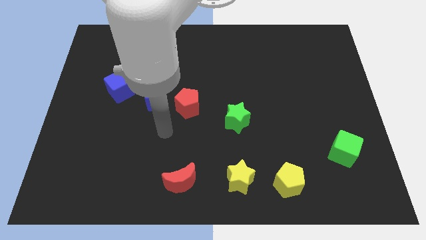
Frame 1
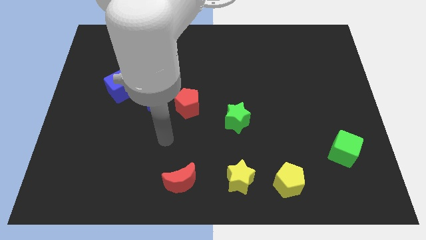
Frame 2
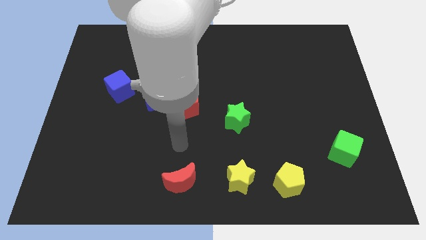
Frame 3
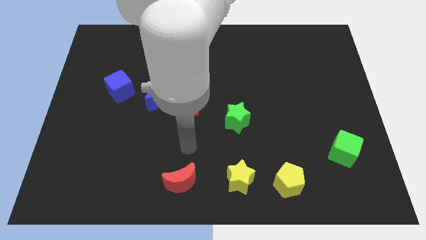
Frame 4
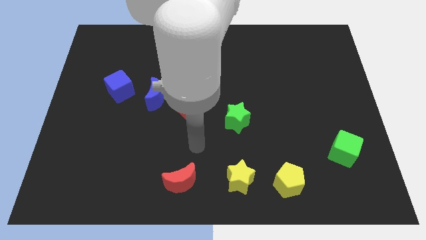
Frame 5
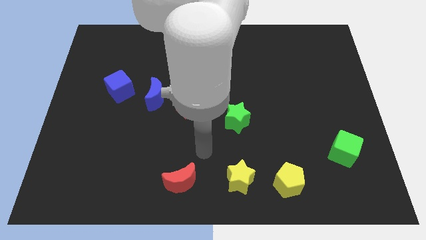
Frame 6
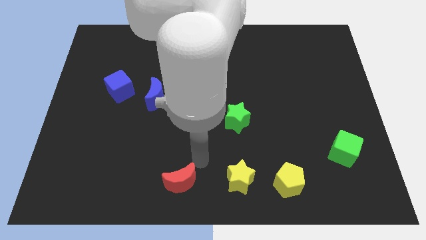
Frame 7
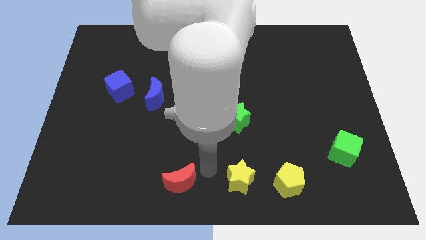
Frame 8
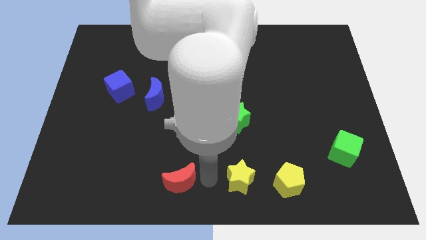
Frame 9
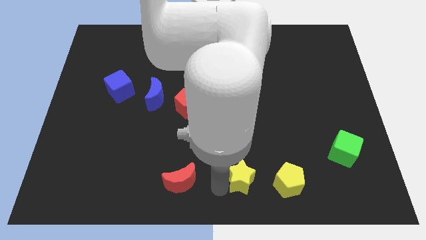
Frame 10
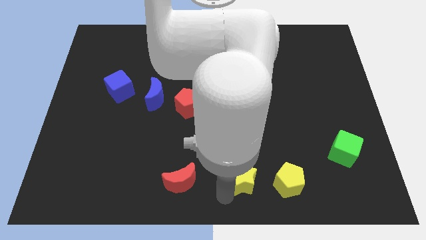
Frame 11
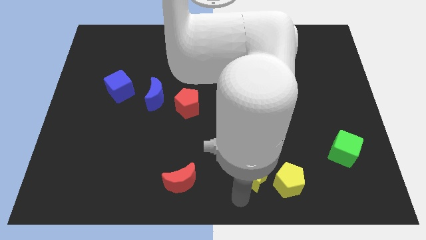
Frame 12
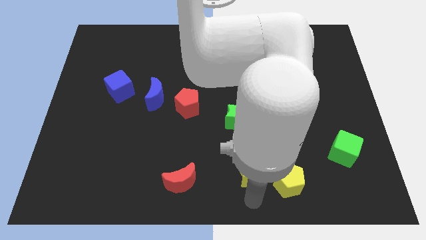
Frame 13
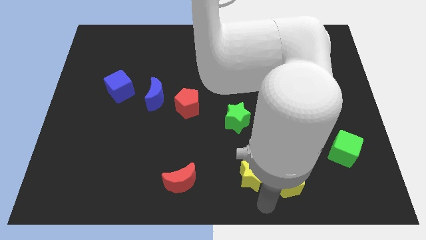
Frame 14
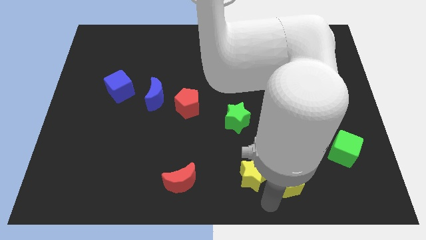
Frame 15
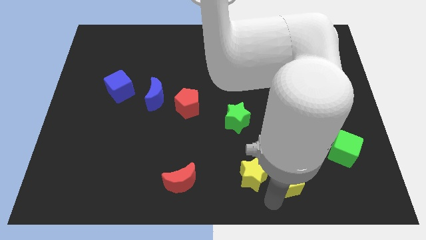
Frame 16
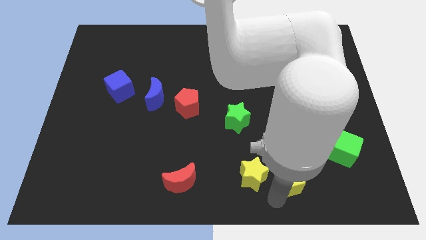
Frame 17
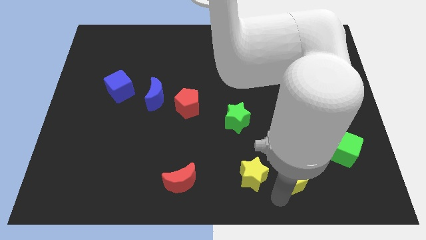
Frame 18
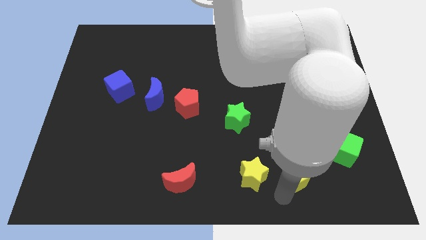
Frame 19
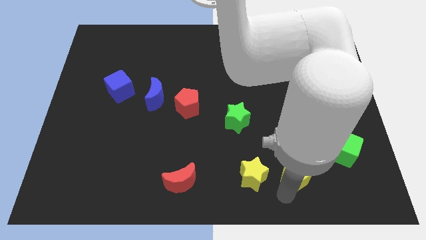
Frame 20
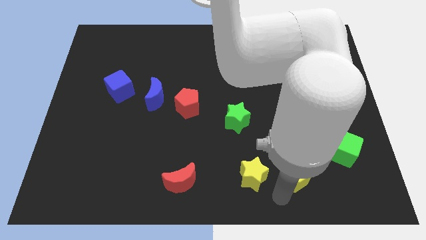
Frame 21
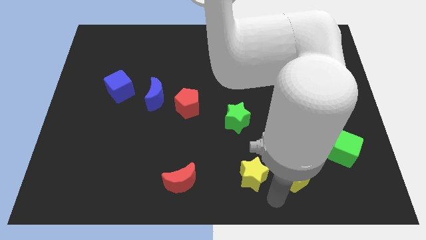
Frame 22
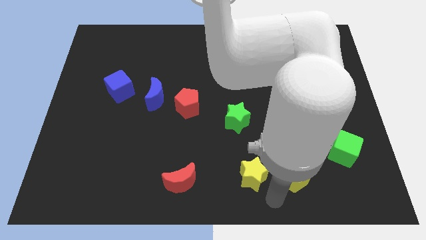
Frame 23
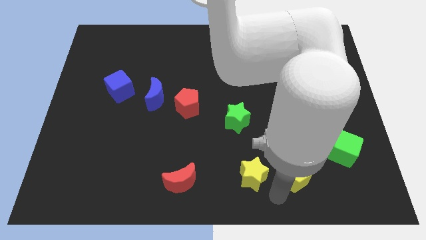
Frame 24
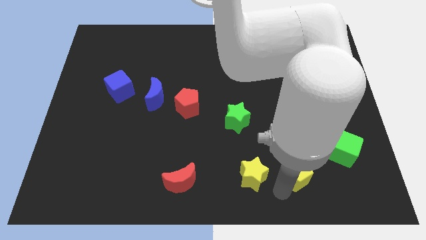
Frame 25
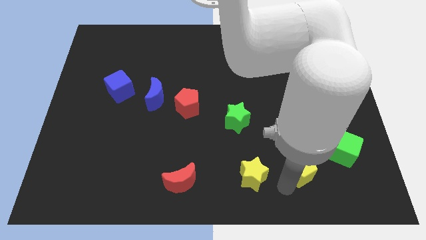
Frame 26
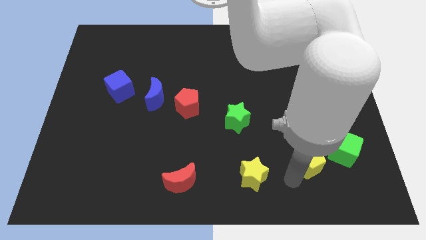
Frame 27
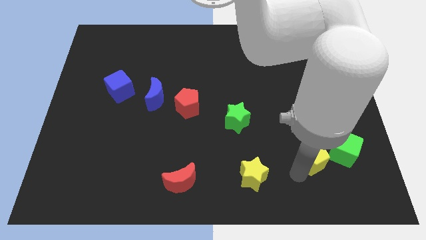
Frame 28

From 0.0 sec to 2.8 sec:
slide the yellow pentagon a little bit upwards and to the right diagonally

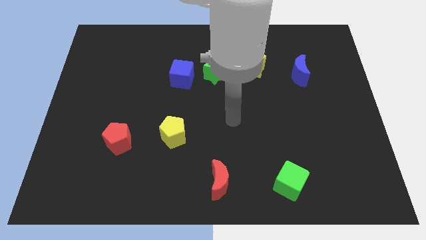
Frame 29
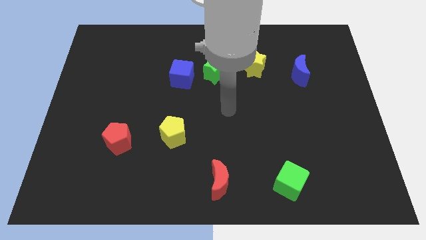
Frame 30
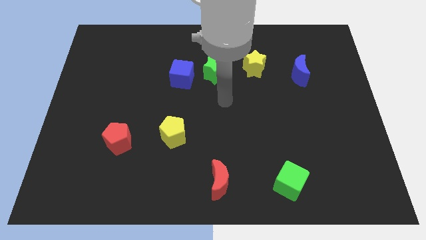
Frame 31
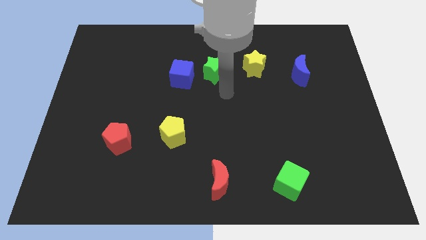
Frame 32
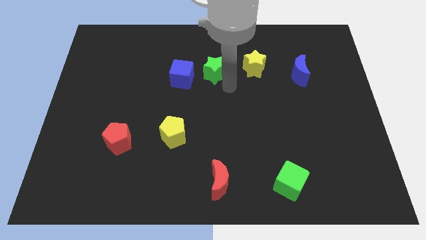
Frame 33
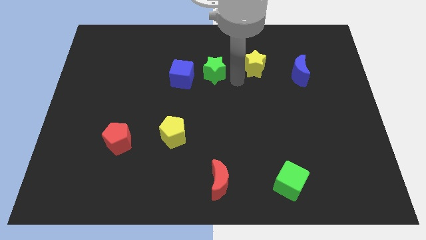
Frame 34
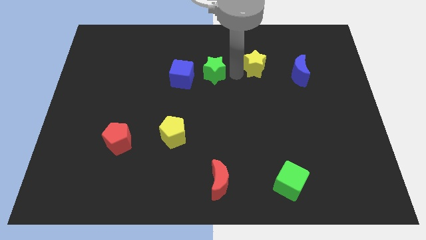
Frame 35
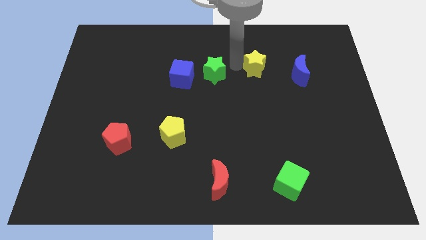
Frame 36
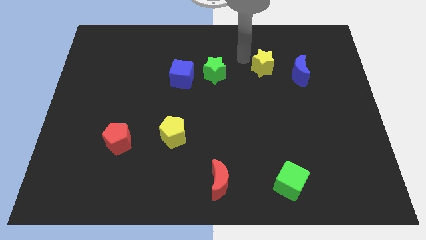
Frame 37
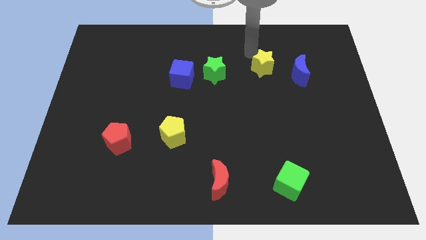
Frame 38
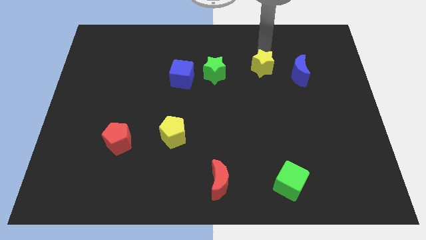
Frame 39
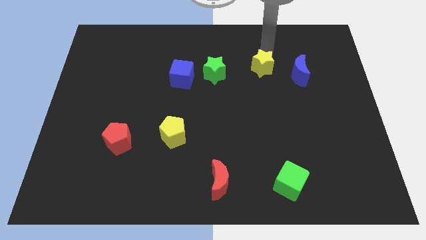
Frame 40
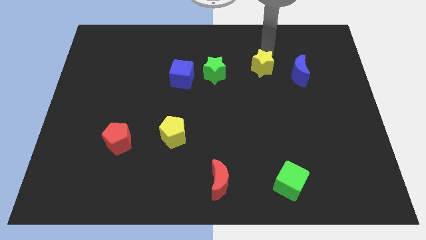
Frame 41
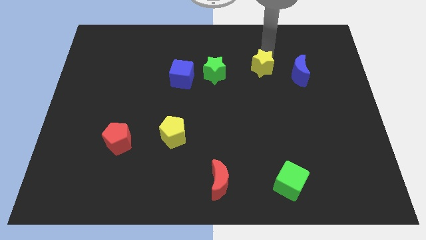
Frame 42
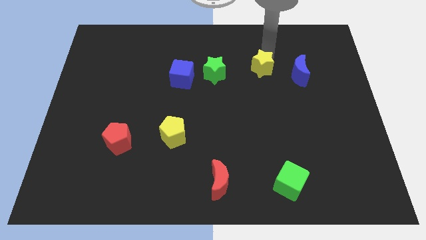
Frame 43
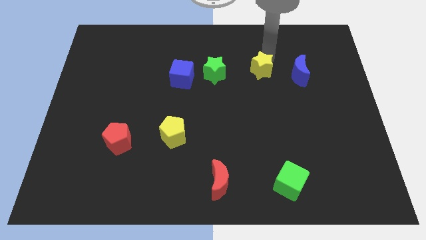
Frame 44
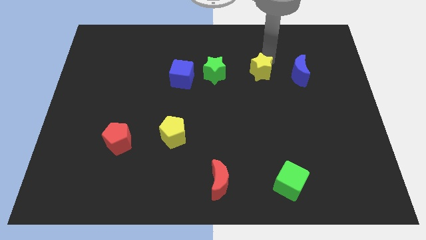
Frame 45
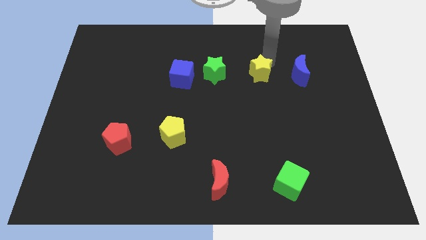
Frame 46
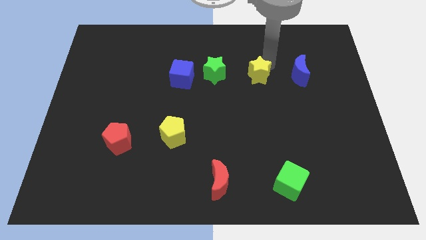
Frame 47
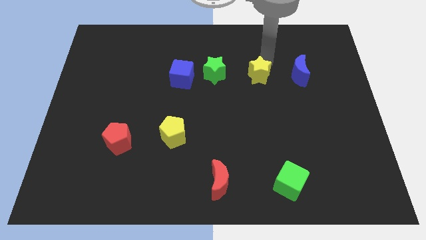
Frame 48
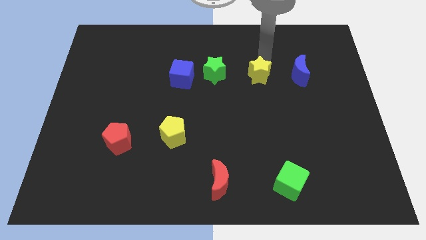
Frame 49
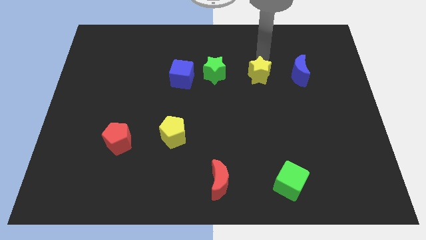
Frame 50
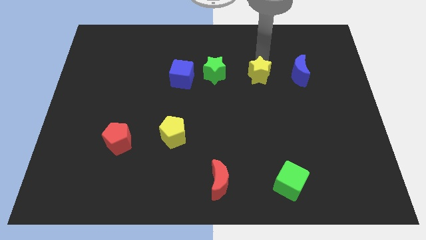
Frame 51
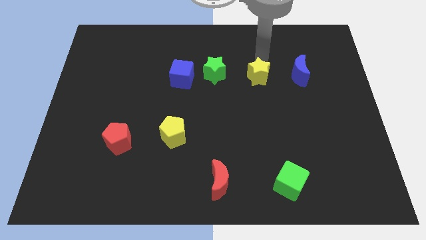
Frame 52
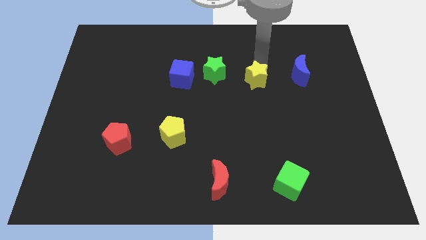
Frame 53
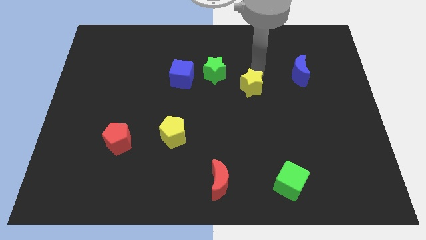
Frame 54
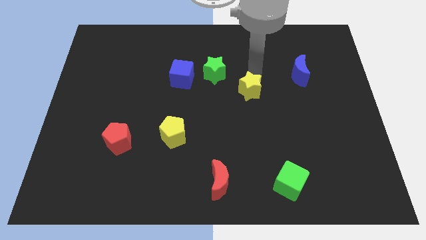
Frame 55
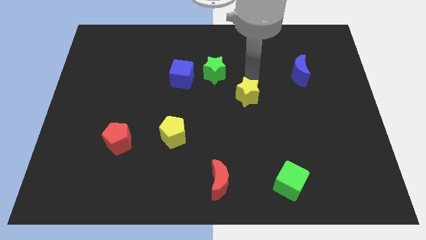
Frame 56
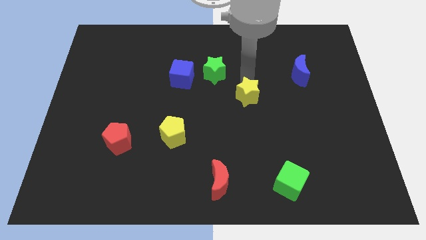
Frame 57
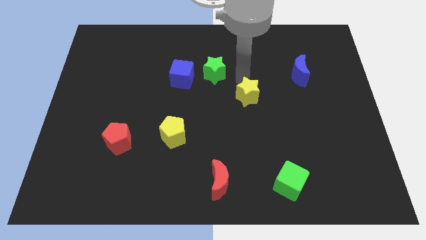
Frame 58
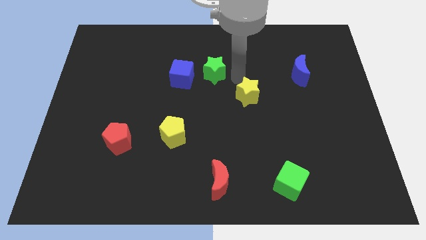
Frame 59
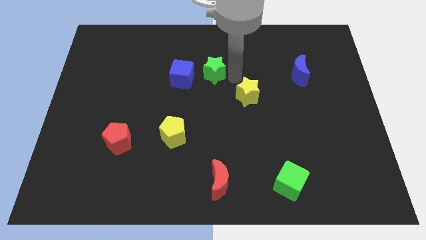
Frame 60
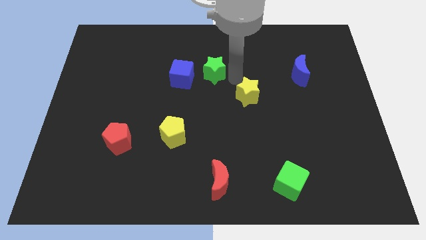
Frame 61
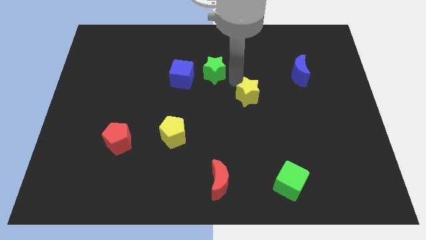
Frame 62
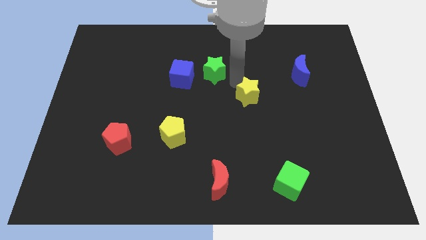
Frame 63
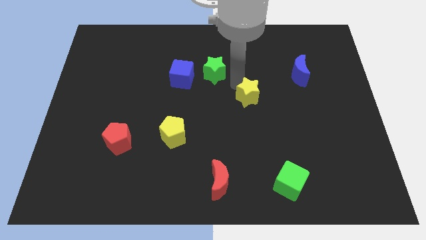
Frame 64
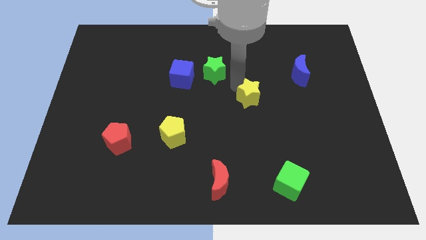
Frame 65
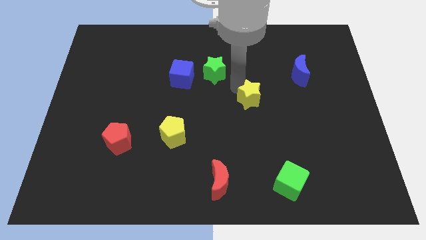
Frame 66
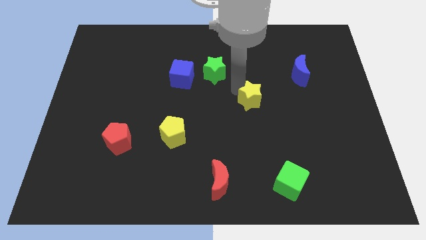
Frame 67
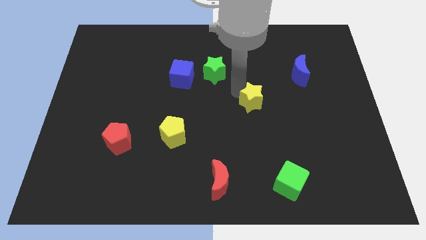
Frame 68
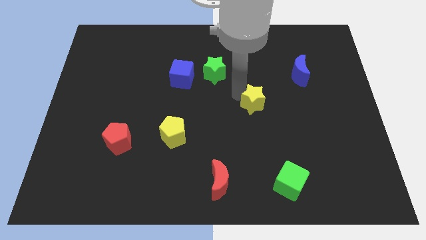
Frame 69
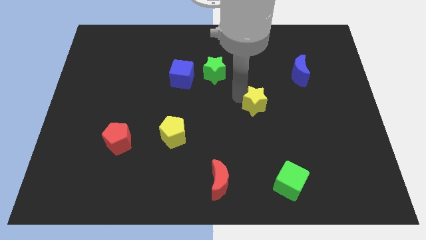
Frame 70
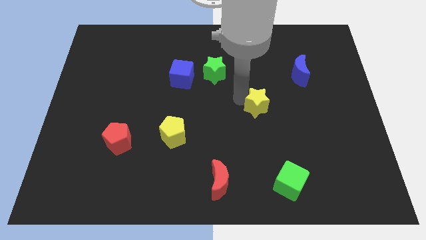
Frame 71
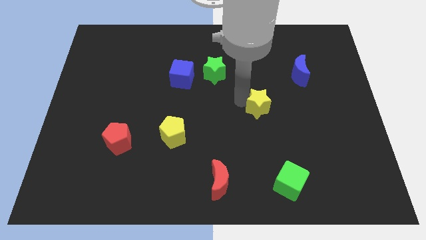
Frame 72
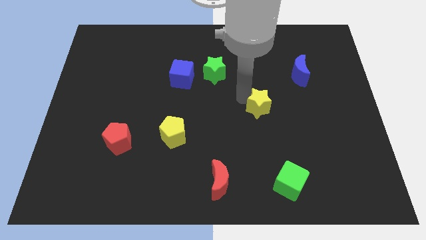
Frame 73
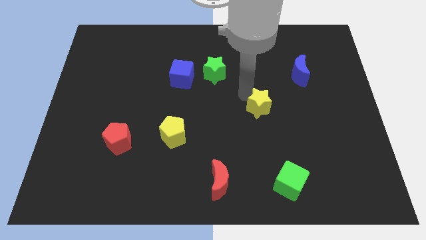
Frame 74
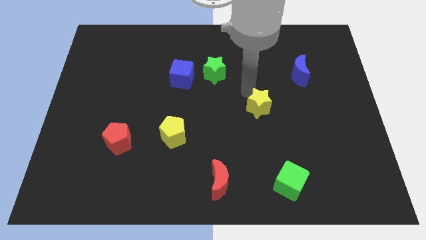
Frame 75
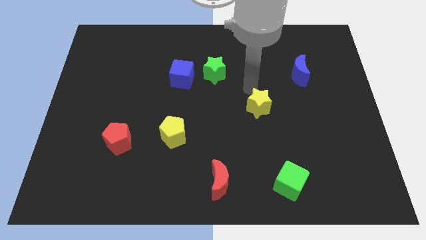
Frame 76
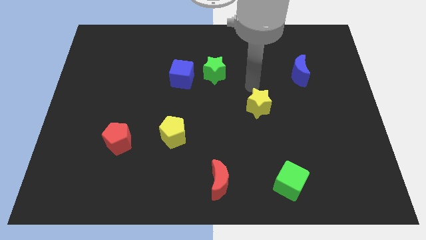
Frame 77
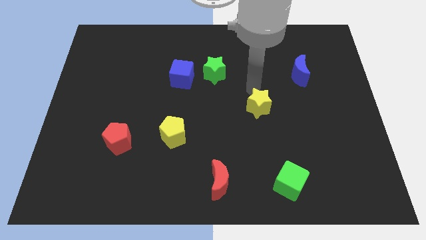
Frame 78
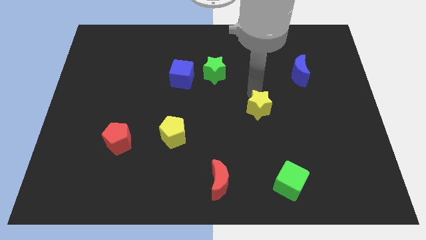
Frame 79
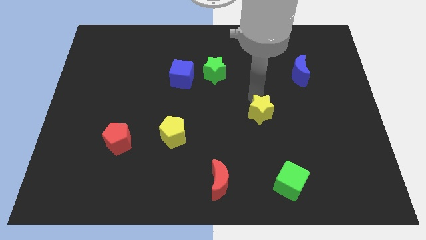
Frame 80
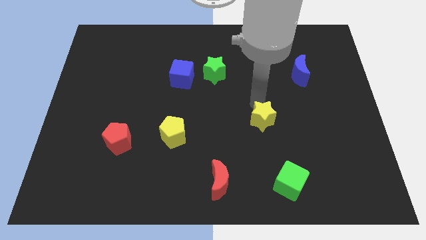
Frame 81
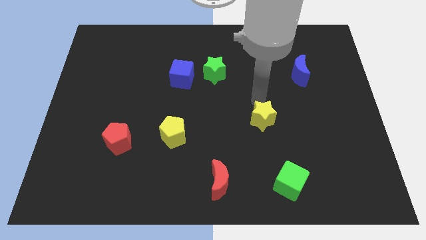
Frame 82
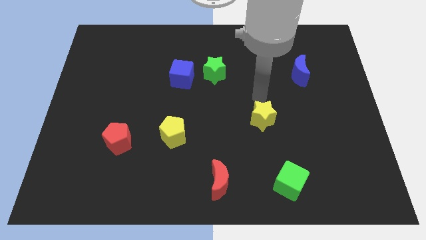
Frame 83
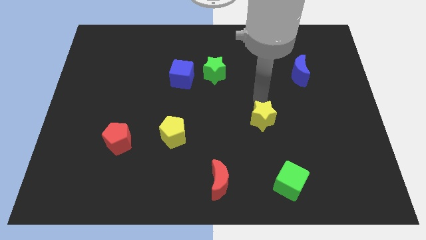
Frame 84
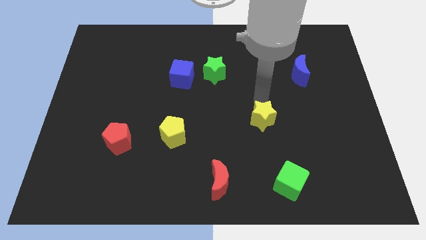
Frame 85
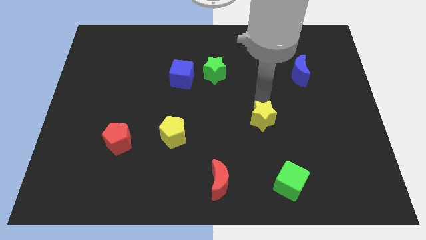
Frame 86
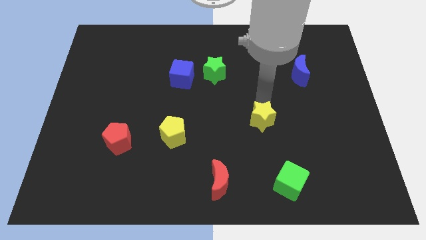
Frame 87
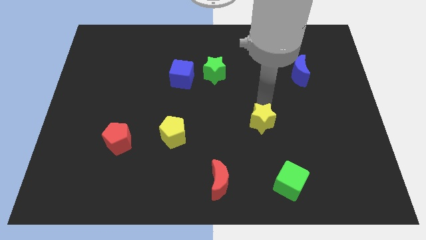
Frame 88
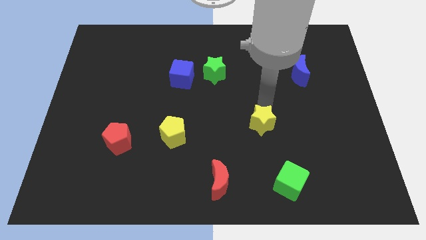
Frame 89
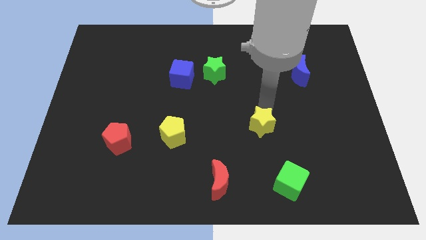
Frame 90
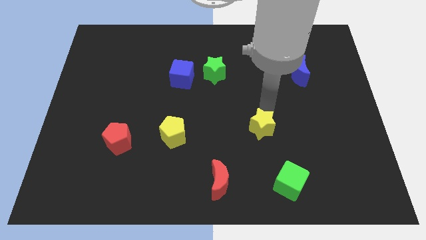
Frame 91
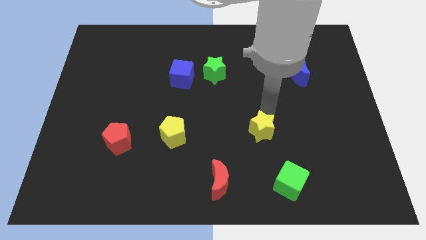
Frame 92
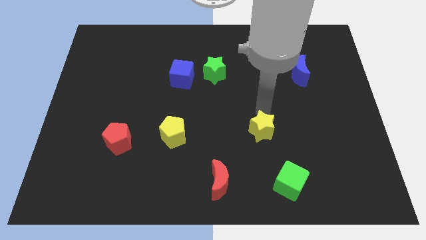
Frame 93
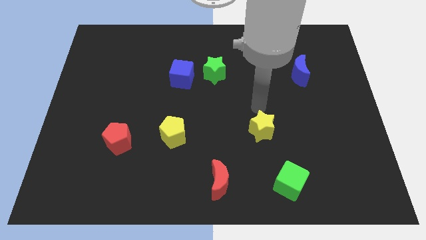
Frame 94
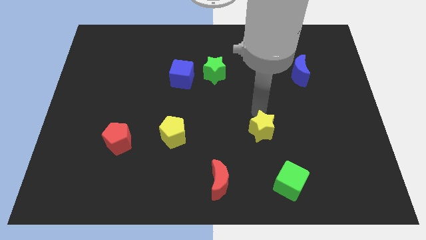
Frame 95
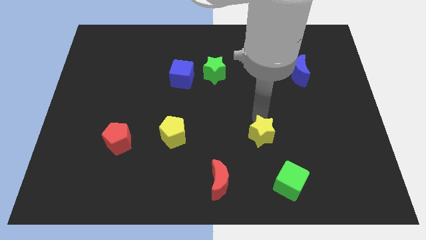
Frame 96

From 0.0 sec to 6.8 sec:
slide the yellow star down
